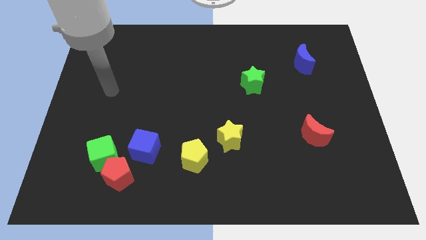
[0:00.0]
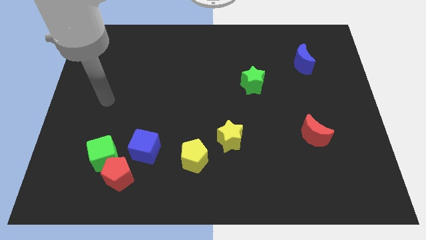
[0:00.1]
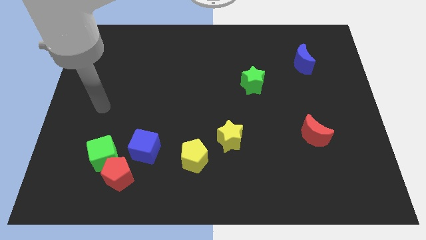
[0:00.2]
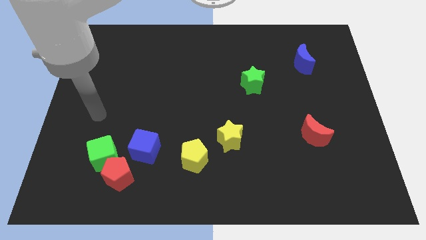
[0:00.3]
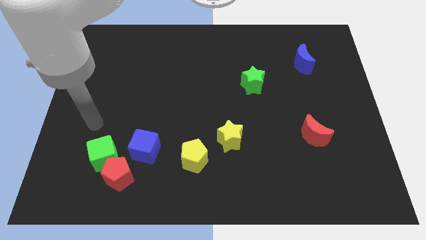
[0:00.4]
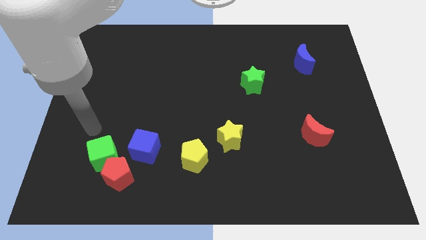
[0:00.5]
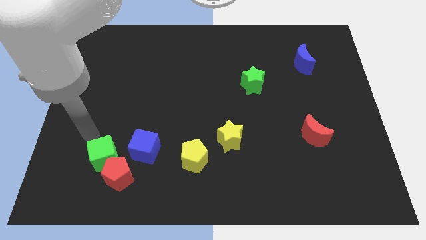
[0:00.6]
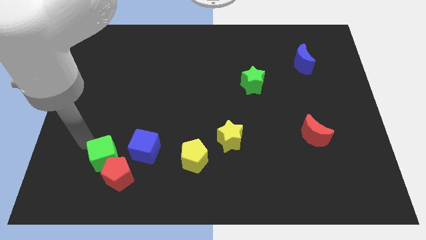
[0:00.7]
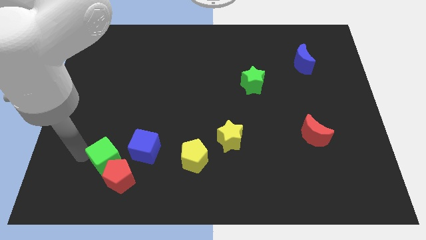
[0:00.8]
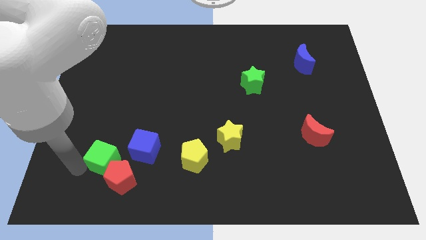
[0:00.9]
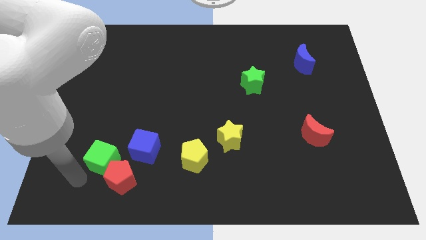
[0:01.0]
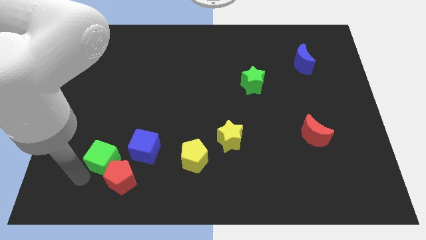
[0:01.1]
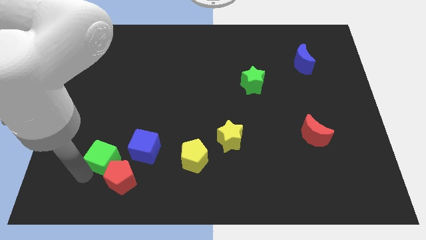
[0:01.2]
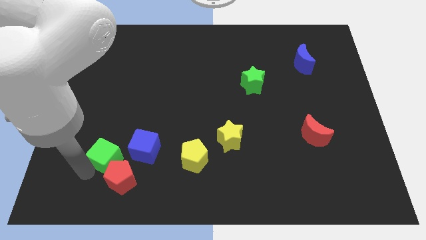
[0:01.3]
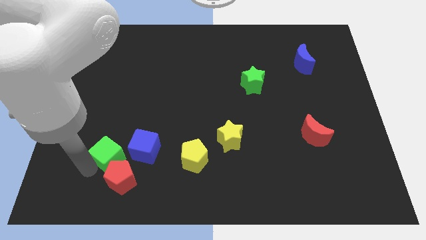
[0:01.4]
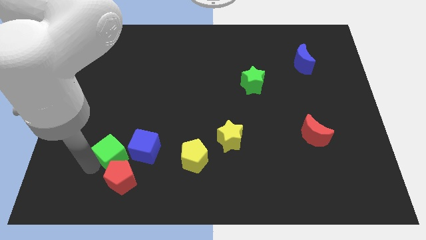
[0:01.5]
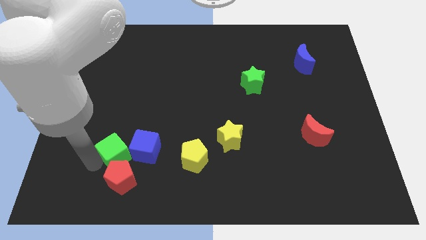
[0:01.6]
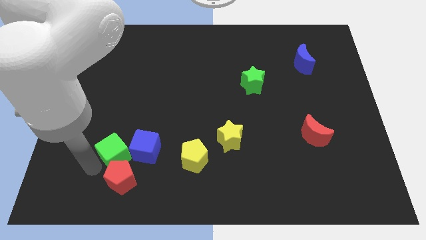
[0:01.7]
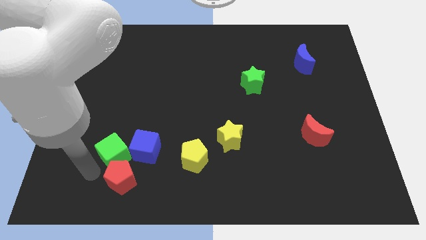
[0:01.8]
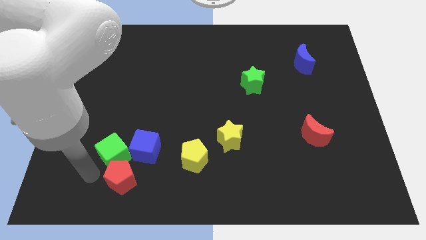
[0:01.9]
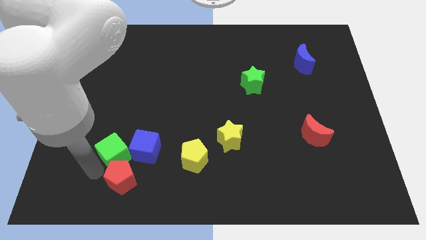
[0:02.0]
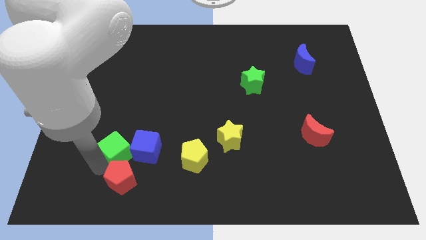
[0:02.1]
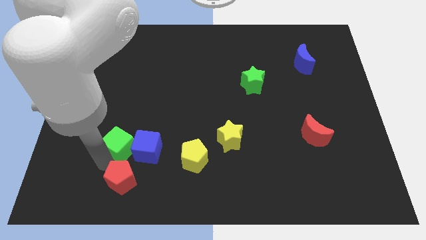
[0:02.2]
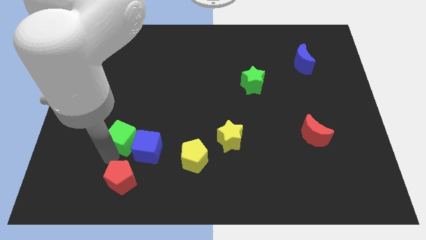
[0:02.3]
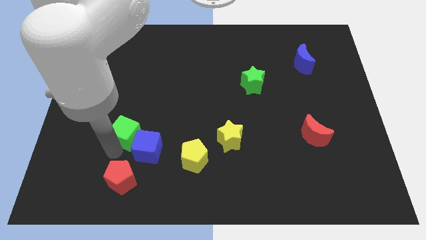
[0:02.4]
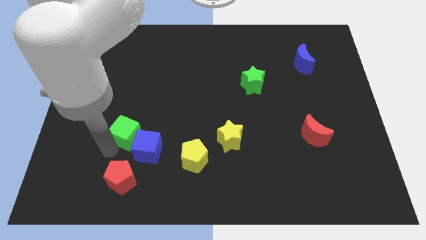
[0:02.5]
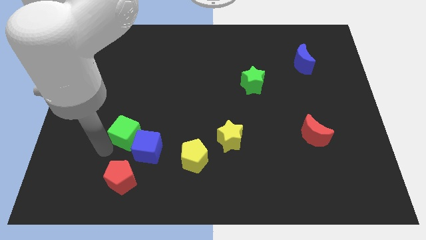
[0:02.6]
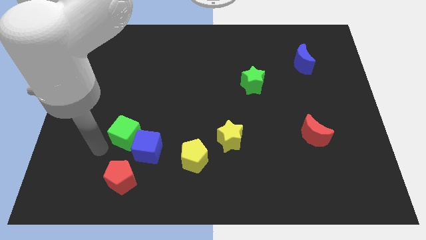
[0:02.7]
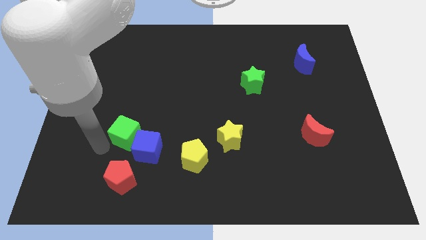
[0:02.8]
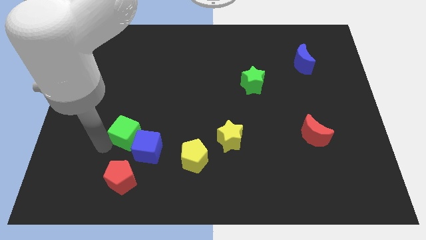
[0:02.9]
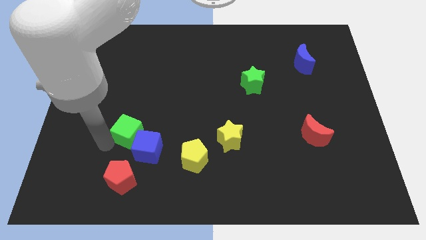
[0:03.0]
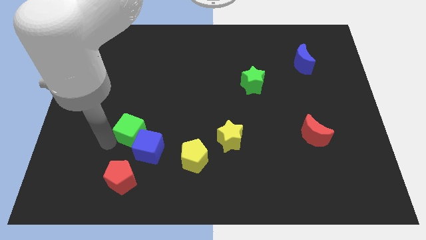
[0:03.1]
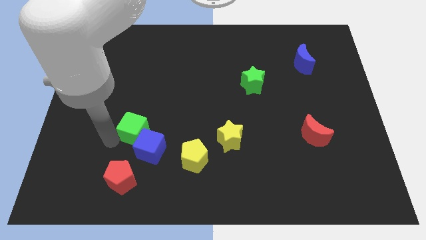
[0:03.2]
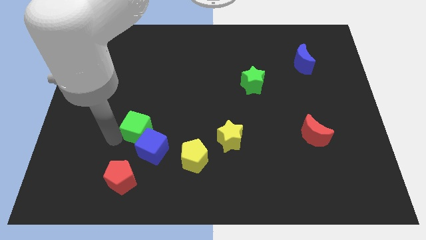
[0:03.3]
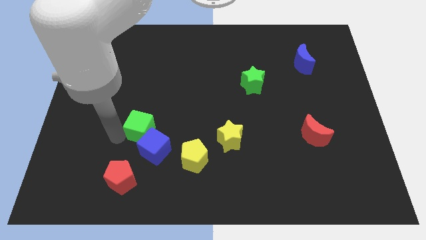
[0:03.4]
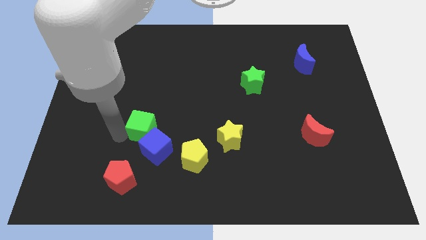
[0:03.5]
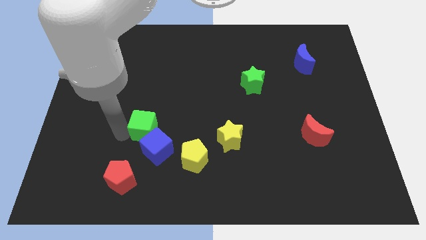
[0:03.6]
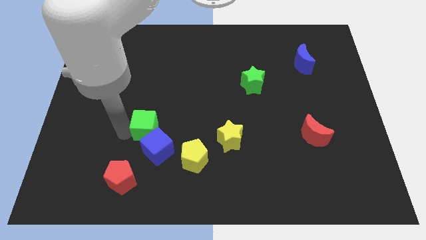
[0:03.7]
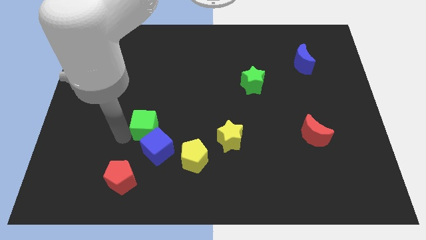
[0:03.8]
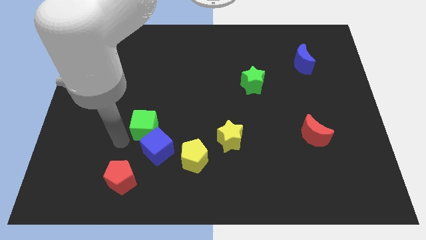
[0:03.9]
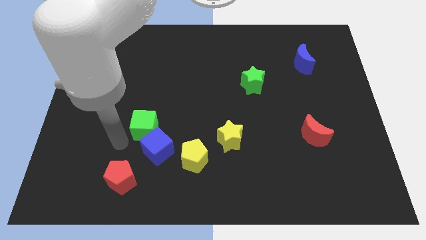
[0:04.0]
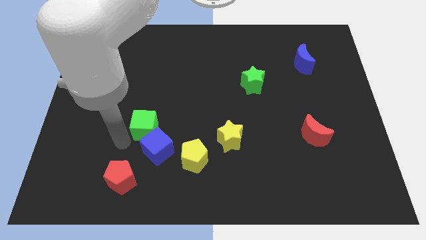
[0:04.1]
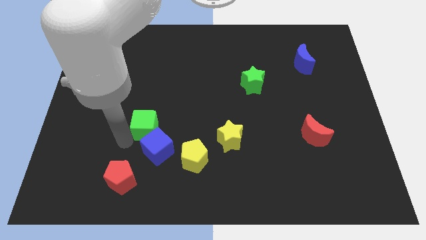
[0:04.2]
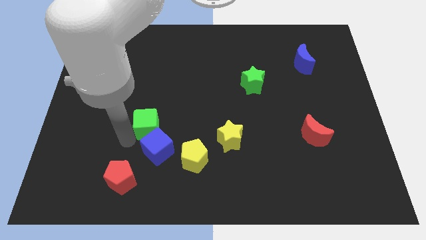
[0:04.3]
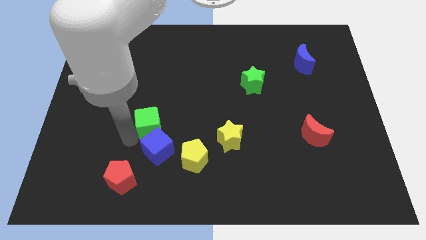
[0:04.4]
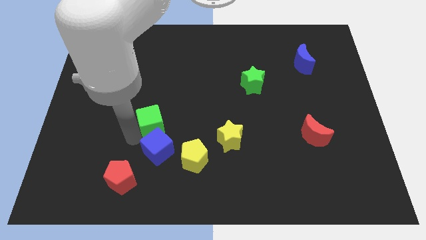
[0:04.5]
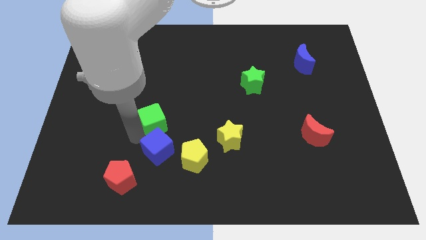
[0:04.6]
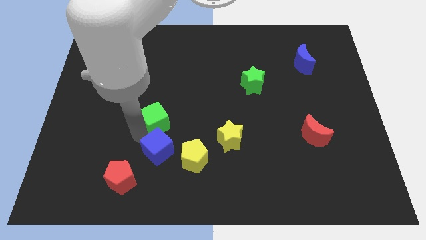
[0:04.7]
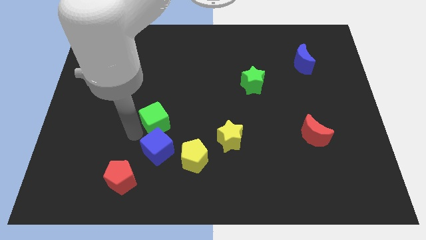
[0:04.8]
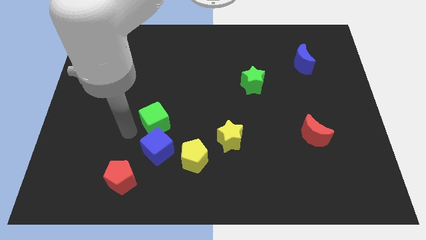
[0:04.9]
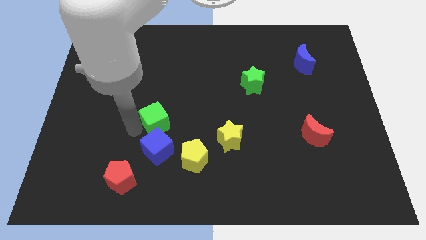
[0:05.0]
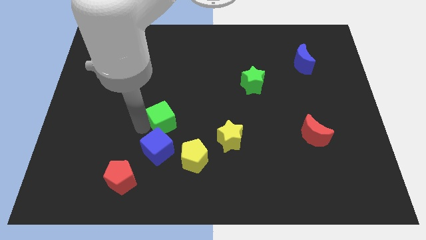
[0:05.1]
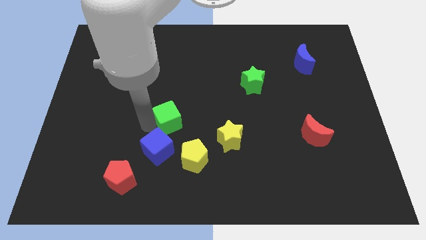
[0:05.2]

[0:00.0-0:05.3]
push the green cube to the center of the board
